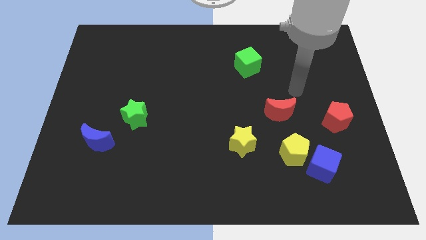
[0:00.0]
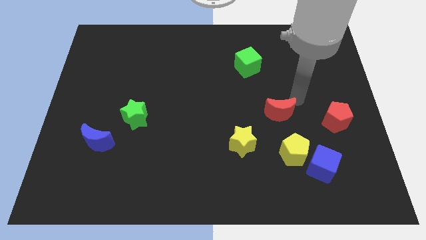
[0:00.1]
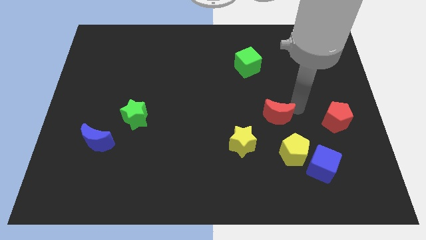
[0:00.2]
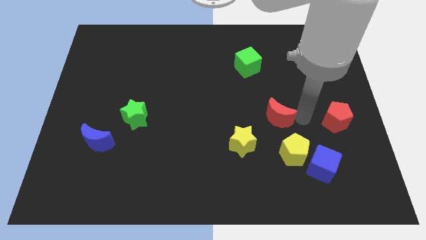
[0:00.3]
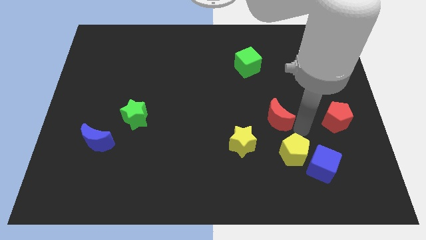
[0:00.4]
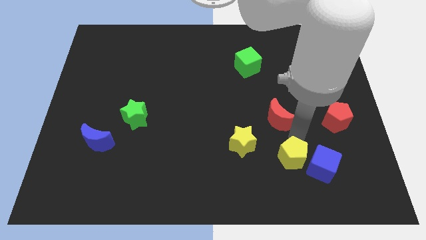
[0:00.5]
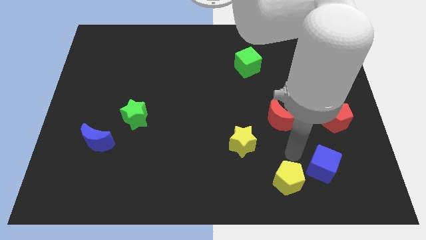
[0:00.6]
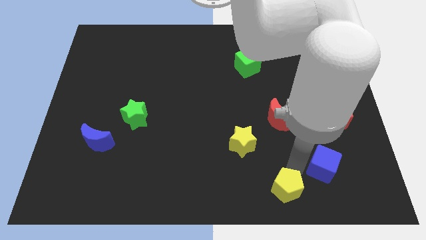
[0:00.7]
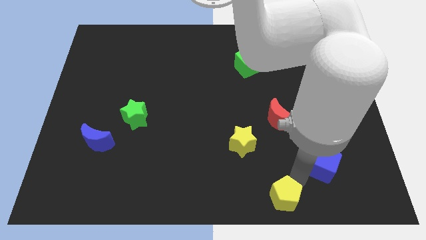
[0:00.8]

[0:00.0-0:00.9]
separate the blue cube from the yellow pentagon

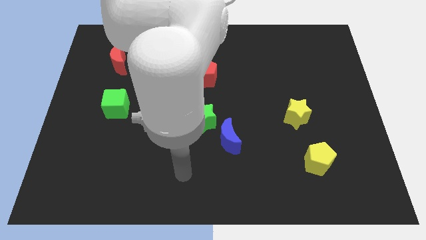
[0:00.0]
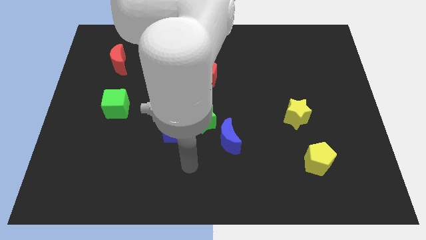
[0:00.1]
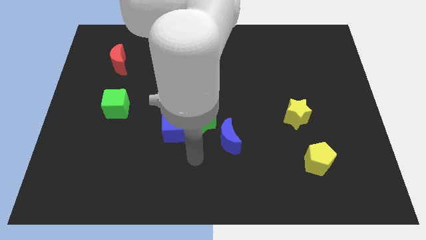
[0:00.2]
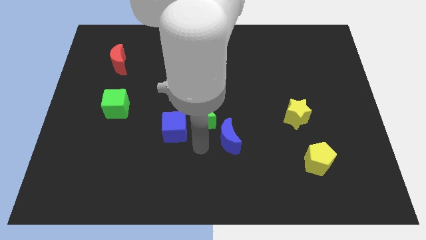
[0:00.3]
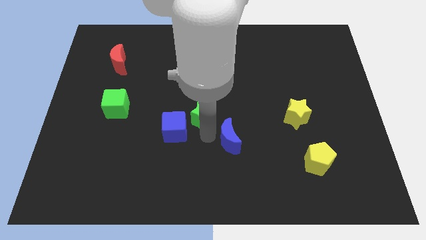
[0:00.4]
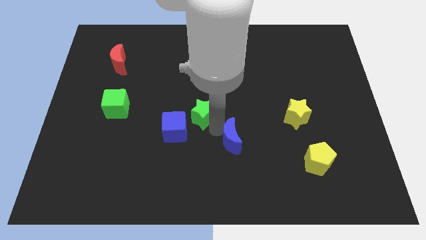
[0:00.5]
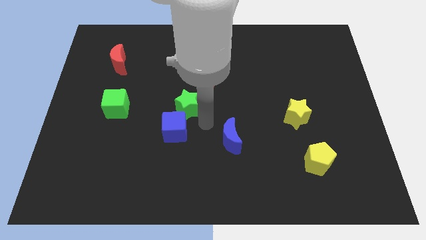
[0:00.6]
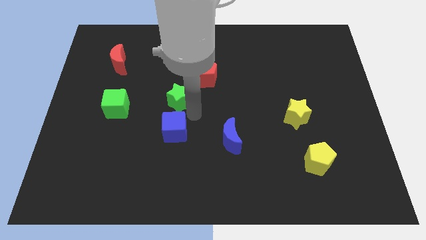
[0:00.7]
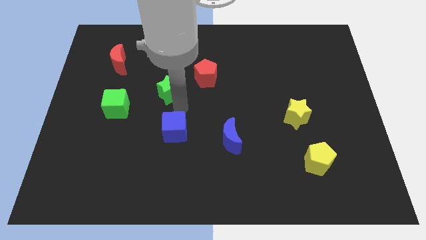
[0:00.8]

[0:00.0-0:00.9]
pull the blue cube apart from the green star

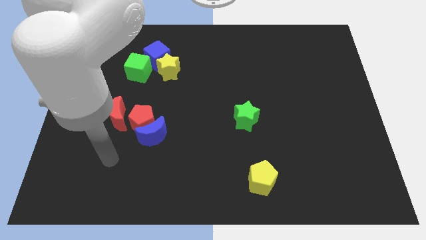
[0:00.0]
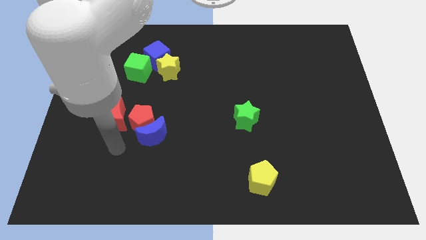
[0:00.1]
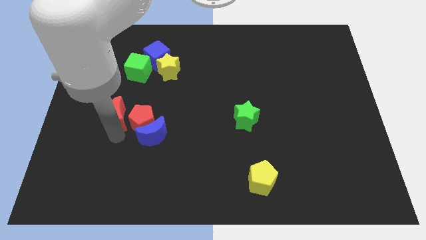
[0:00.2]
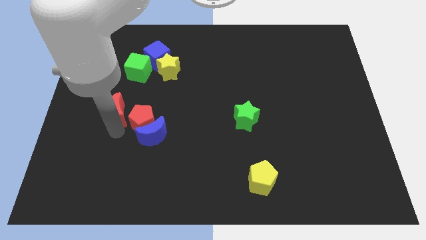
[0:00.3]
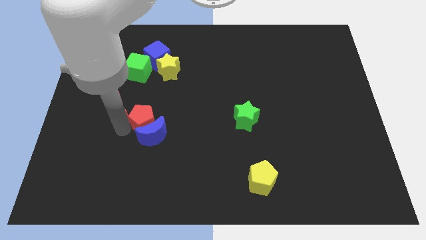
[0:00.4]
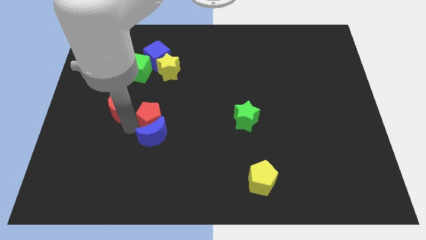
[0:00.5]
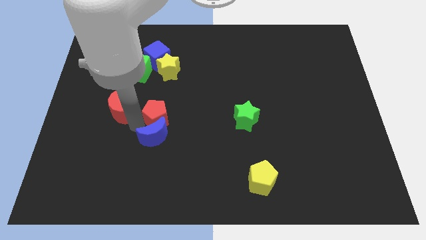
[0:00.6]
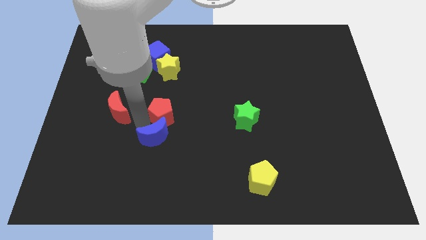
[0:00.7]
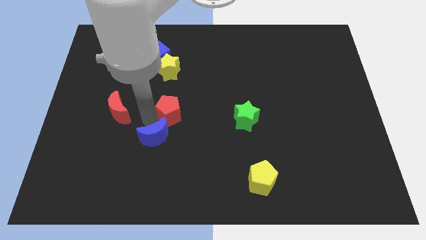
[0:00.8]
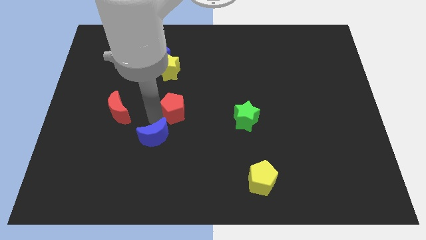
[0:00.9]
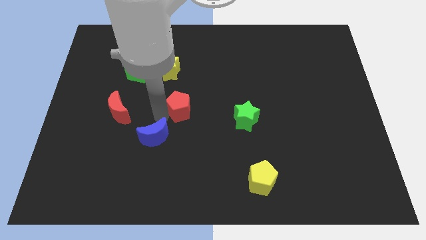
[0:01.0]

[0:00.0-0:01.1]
pull the red pentagon apart from the blue moon and red moon

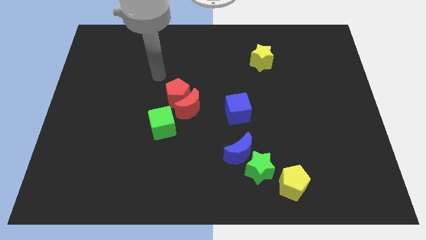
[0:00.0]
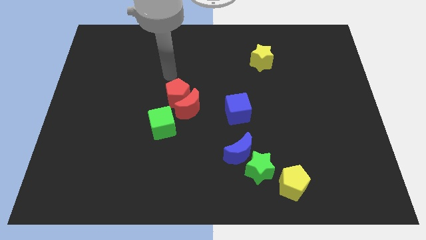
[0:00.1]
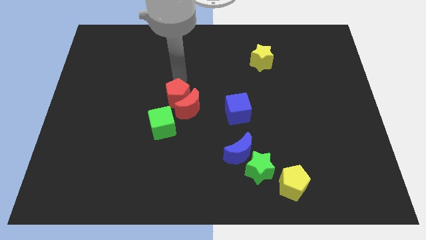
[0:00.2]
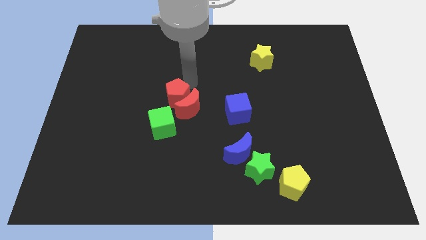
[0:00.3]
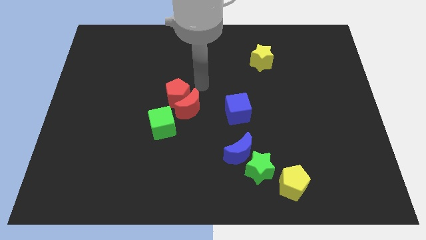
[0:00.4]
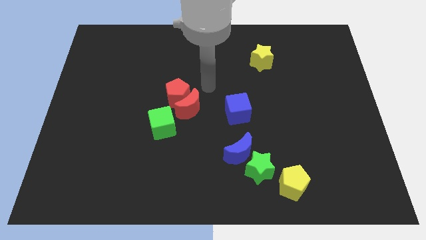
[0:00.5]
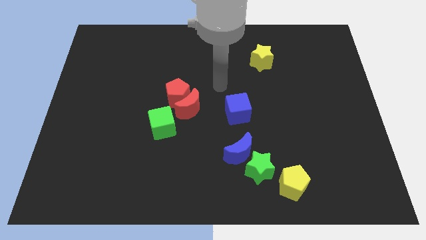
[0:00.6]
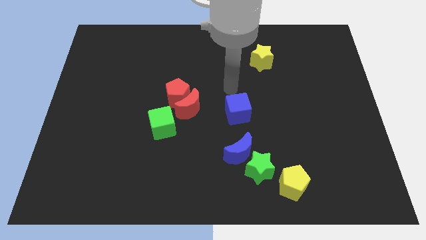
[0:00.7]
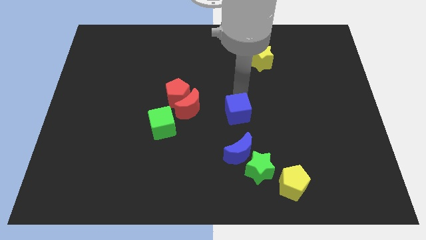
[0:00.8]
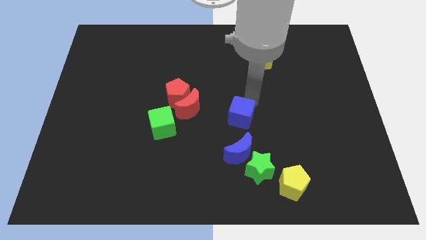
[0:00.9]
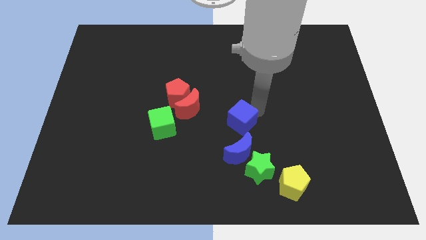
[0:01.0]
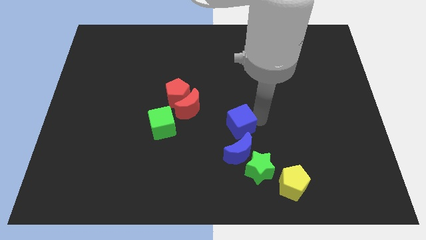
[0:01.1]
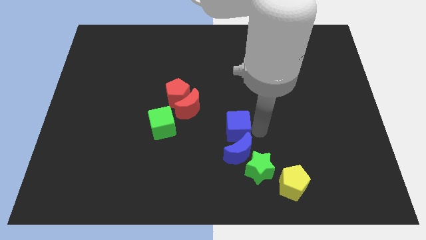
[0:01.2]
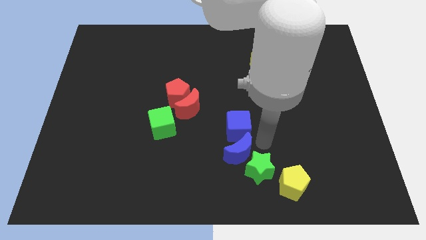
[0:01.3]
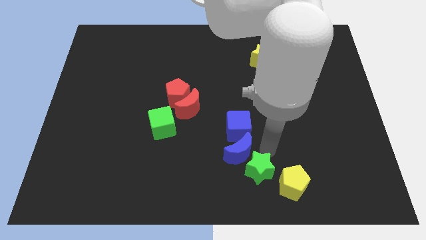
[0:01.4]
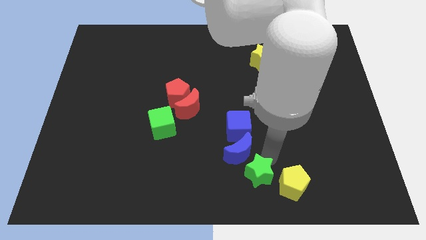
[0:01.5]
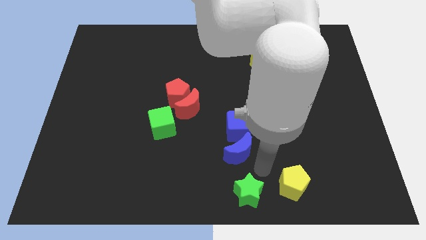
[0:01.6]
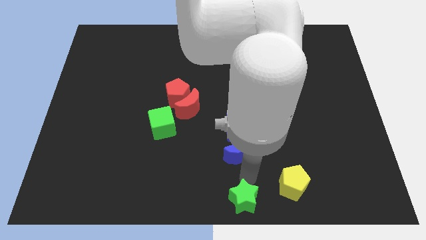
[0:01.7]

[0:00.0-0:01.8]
separate the blue moon from the green star

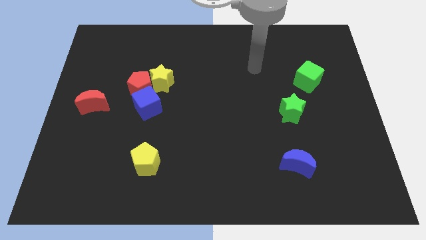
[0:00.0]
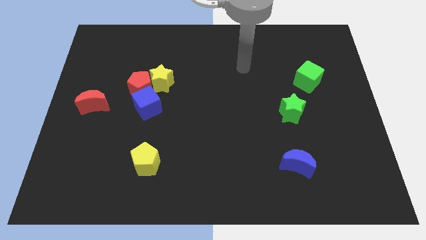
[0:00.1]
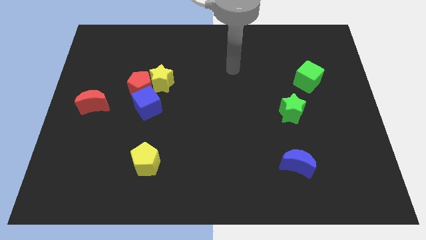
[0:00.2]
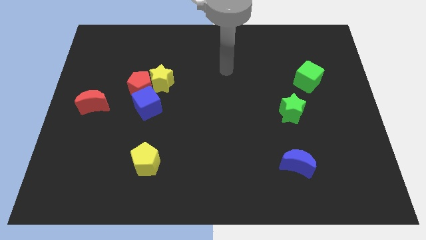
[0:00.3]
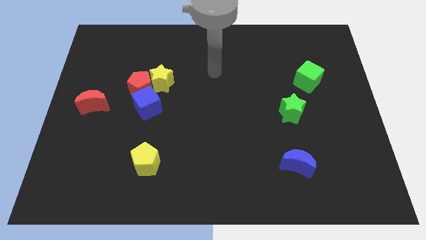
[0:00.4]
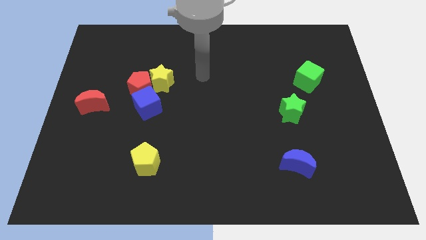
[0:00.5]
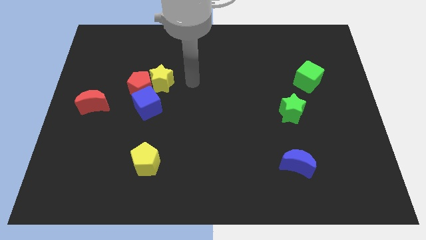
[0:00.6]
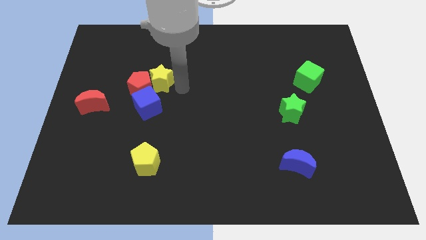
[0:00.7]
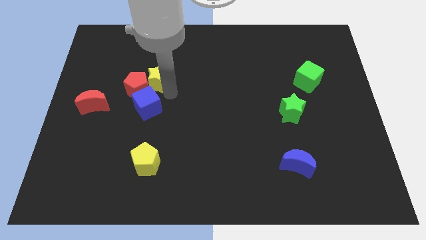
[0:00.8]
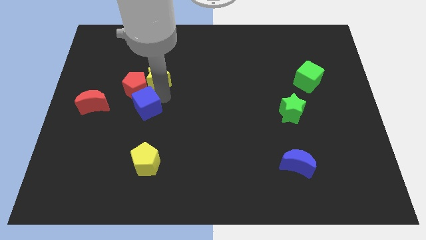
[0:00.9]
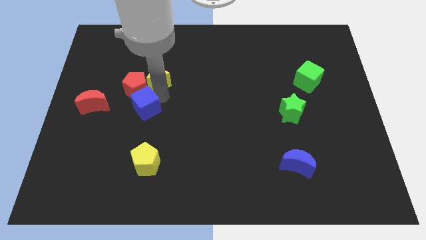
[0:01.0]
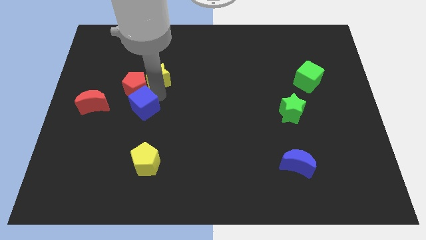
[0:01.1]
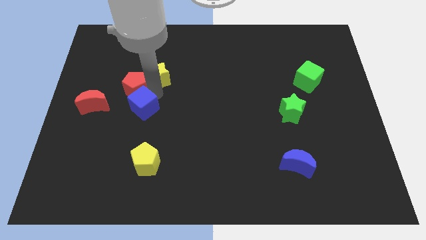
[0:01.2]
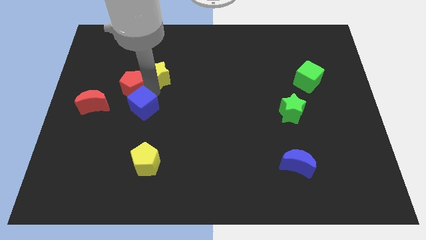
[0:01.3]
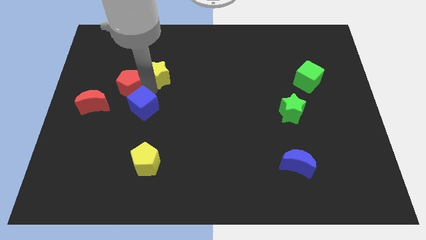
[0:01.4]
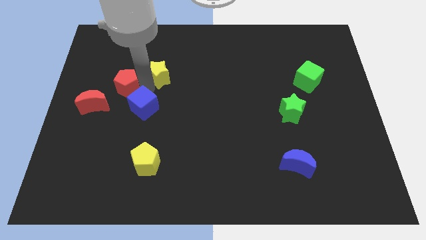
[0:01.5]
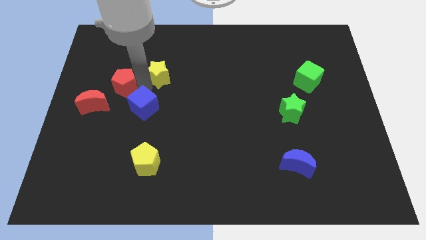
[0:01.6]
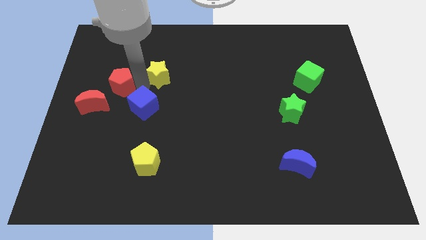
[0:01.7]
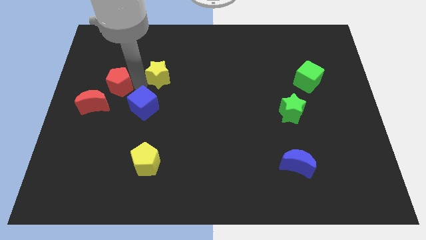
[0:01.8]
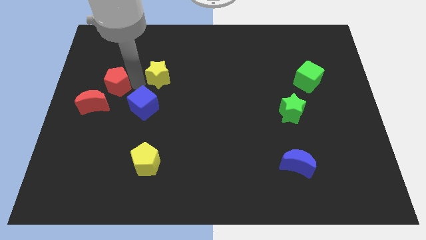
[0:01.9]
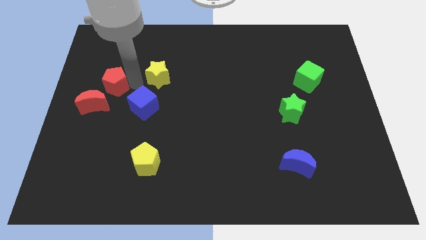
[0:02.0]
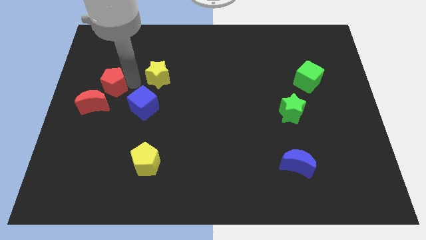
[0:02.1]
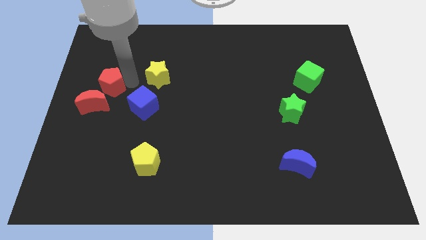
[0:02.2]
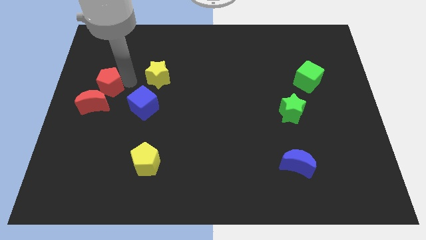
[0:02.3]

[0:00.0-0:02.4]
pull the red pentagon apart from the yellow star and blue cube

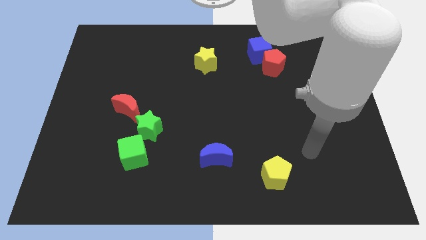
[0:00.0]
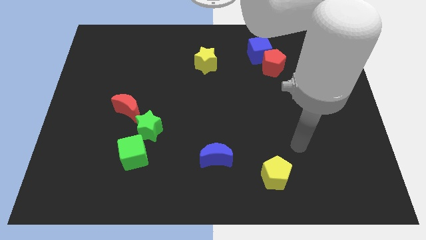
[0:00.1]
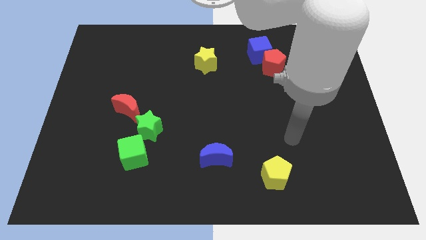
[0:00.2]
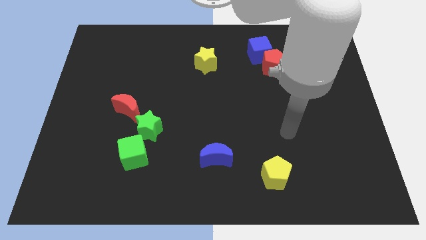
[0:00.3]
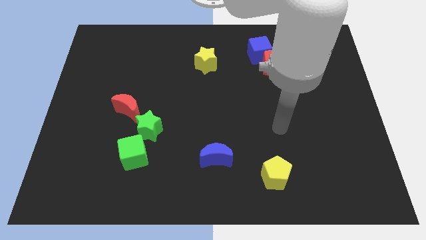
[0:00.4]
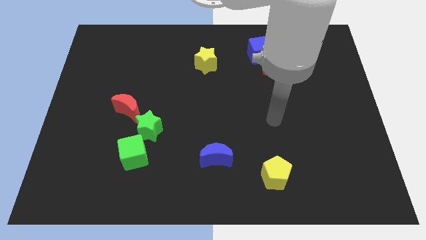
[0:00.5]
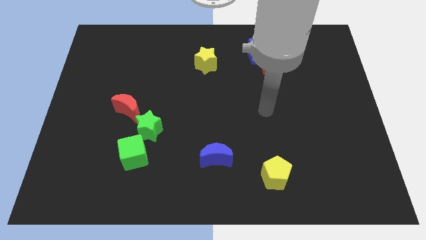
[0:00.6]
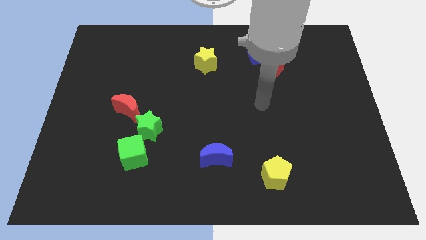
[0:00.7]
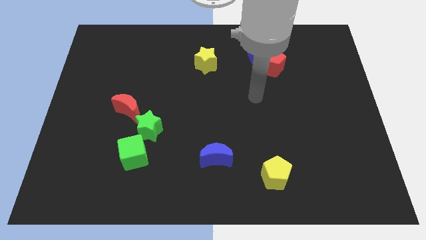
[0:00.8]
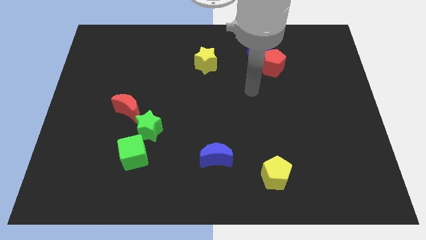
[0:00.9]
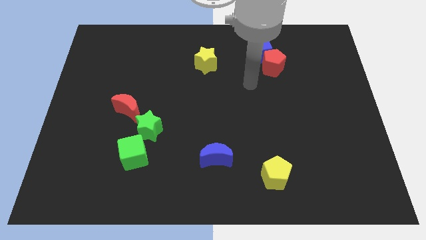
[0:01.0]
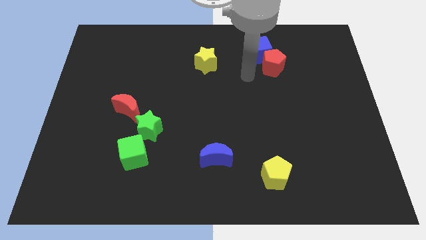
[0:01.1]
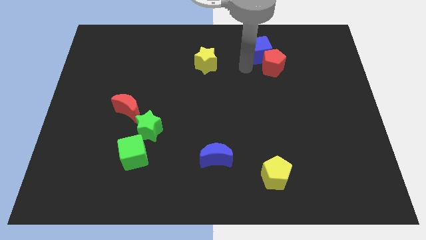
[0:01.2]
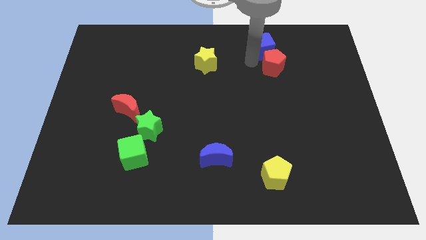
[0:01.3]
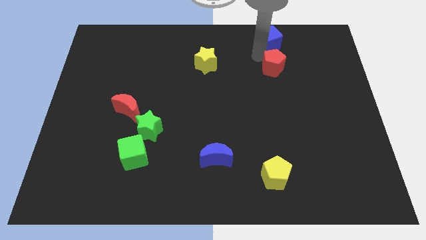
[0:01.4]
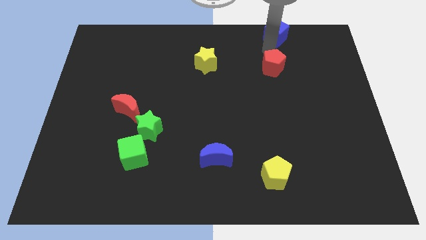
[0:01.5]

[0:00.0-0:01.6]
move the red pentagon away from the blue cube

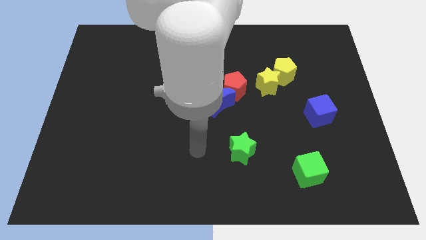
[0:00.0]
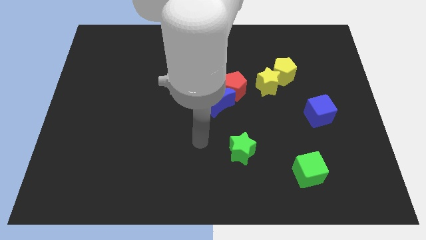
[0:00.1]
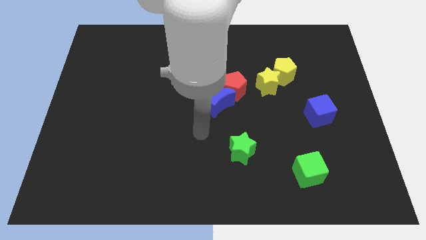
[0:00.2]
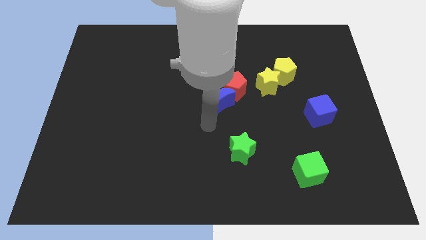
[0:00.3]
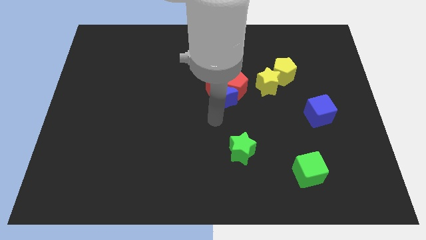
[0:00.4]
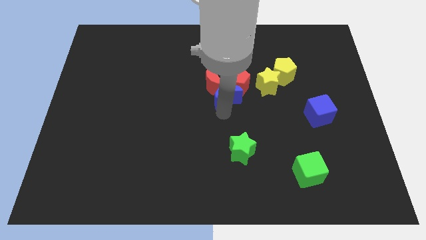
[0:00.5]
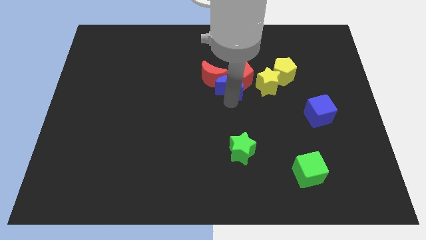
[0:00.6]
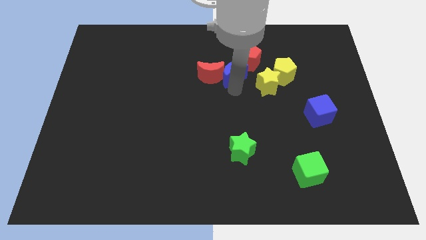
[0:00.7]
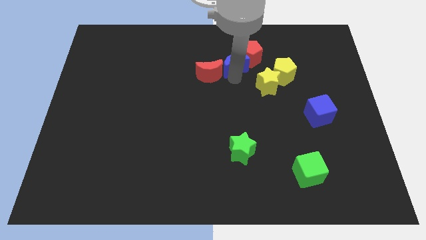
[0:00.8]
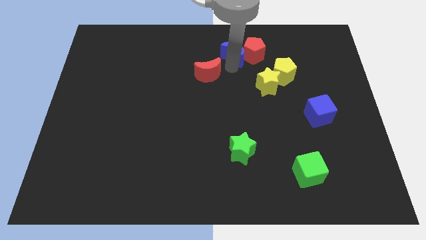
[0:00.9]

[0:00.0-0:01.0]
move the red moon away from the red pentagon and blue moon
